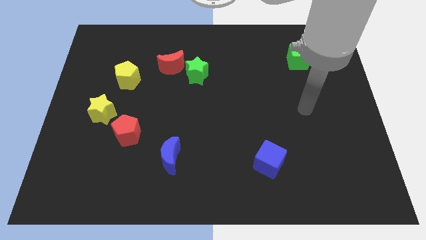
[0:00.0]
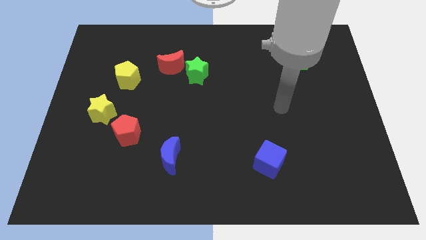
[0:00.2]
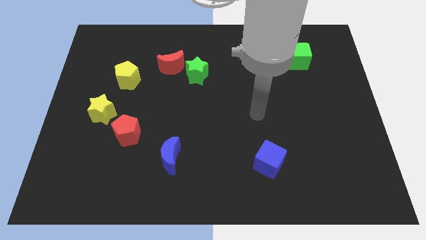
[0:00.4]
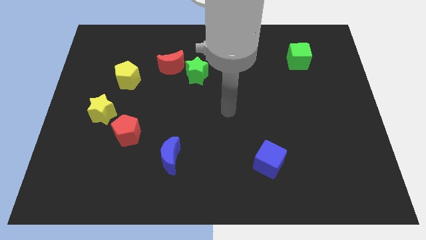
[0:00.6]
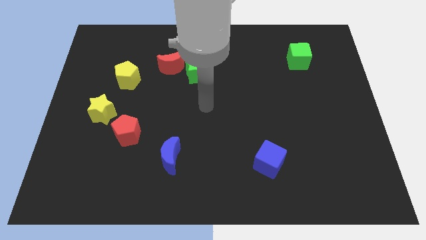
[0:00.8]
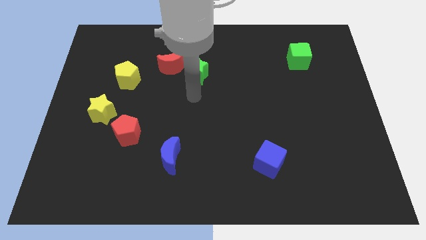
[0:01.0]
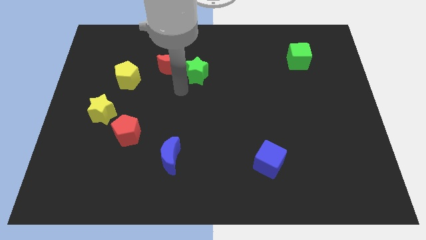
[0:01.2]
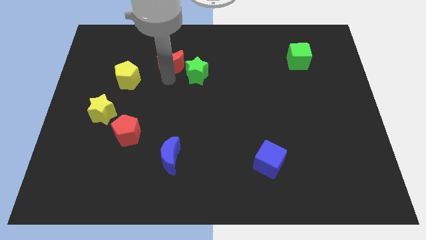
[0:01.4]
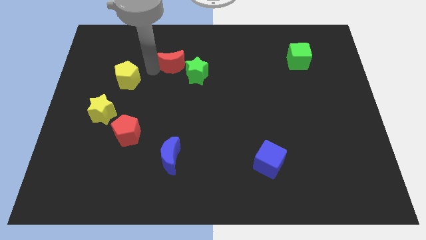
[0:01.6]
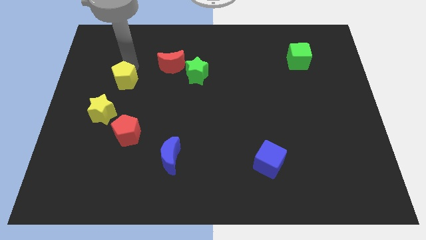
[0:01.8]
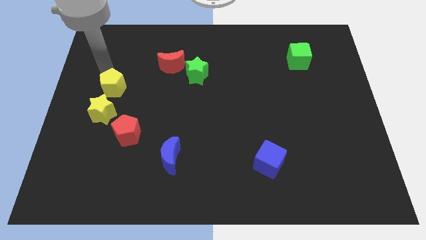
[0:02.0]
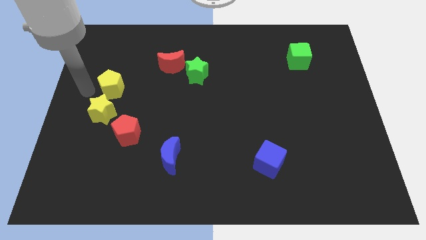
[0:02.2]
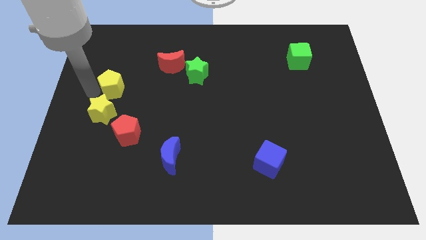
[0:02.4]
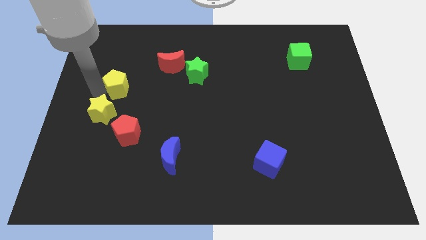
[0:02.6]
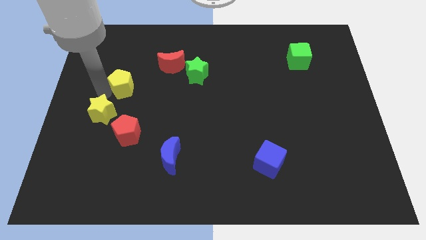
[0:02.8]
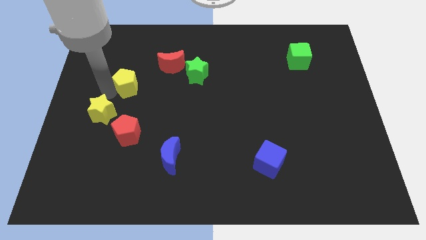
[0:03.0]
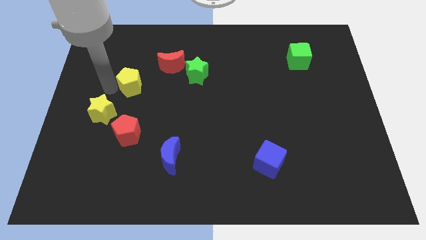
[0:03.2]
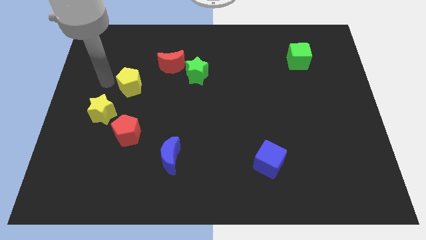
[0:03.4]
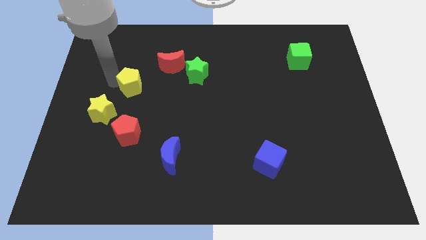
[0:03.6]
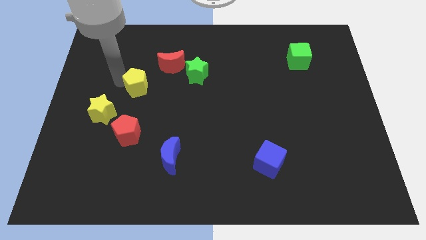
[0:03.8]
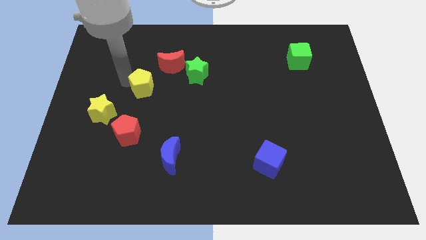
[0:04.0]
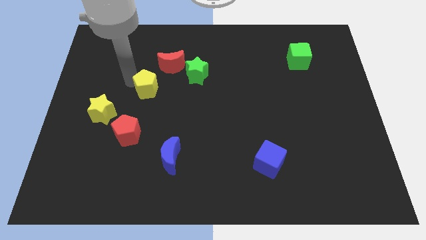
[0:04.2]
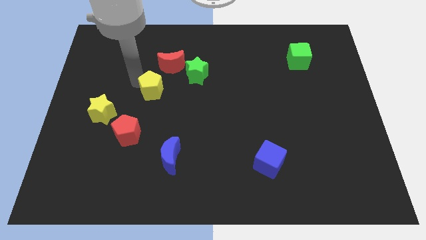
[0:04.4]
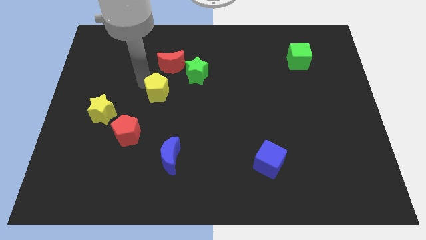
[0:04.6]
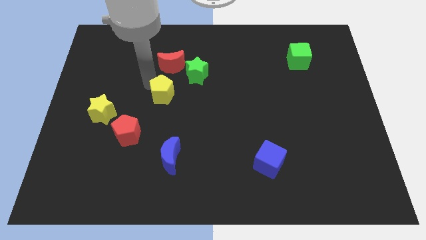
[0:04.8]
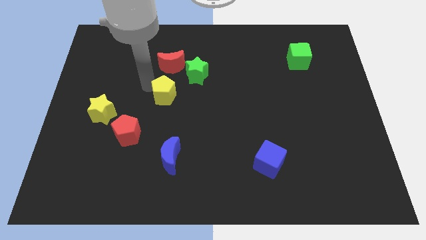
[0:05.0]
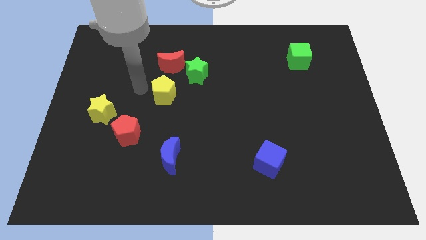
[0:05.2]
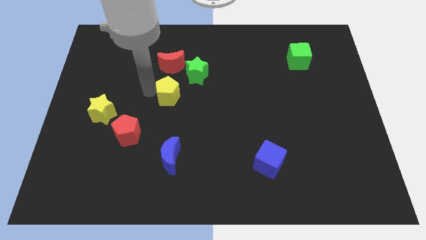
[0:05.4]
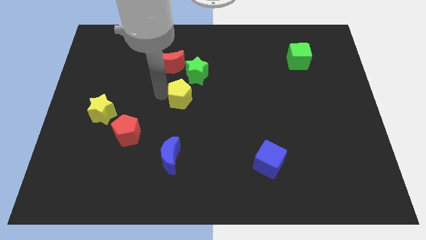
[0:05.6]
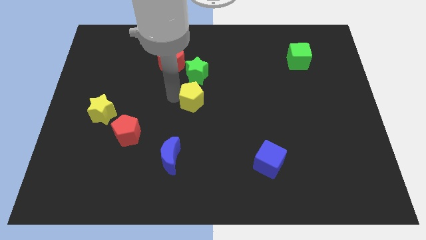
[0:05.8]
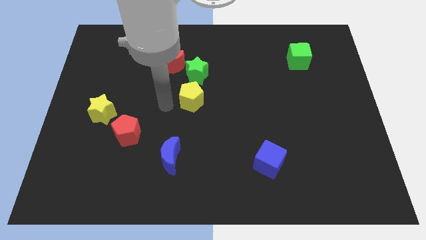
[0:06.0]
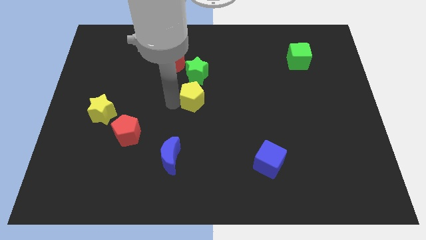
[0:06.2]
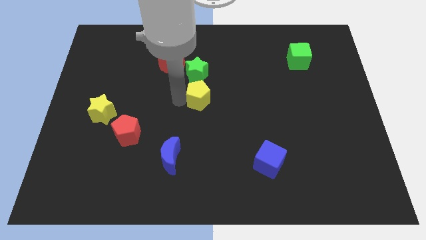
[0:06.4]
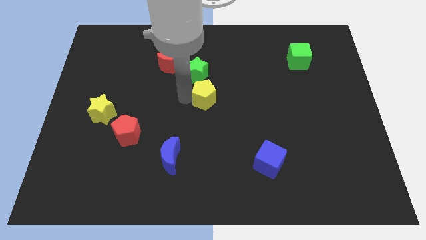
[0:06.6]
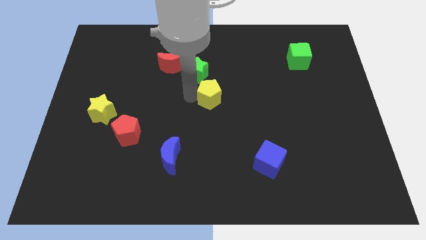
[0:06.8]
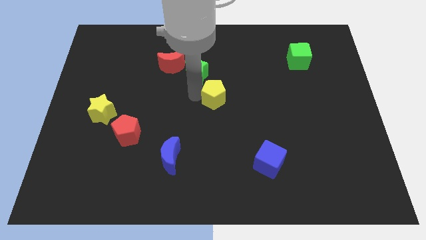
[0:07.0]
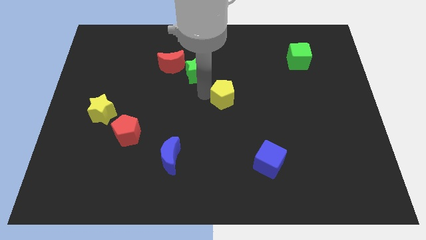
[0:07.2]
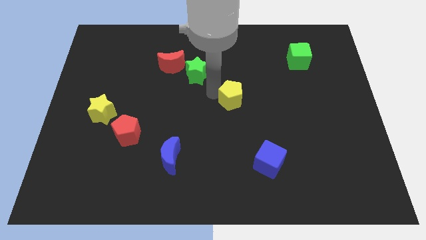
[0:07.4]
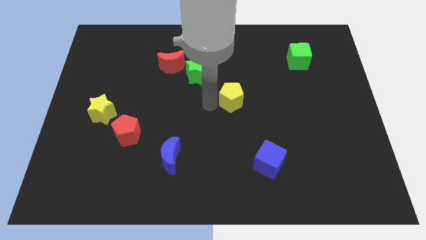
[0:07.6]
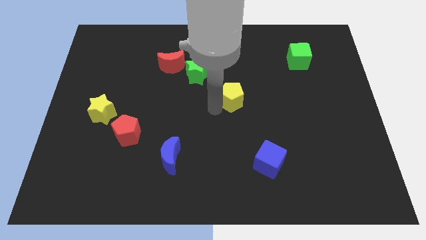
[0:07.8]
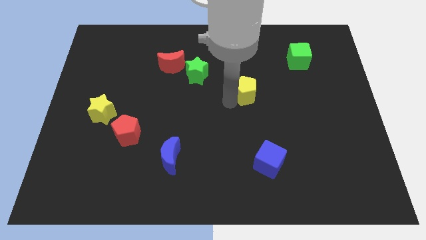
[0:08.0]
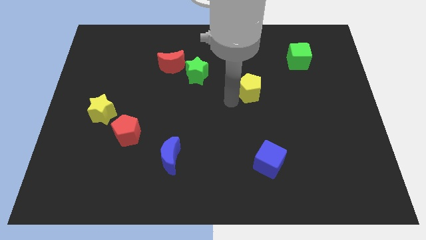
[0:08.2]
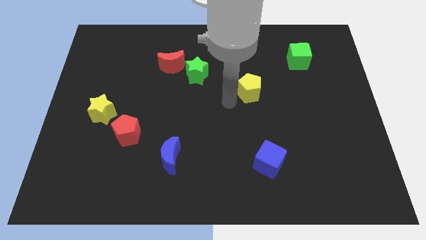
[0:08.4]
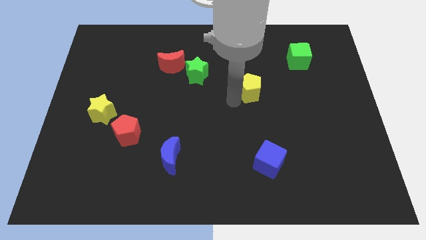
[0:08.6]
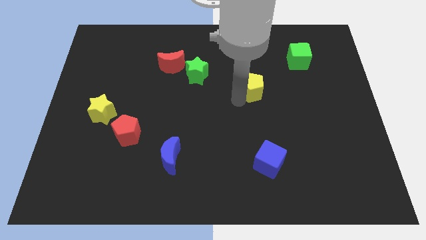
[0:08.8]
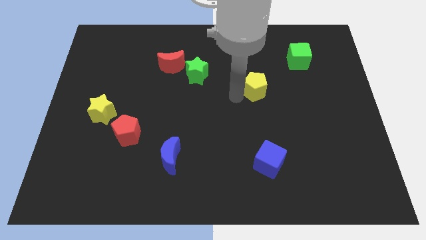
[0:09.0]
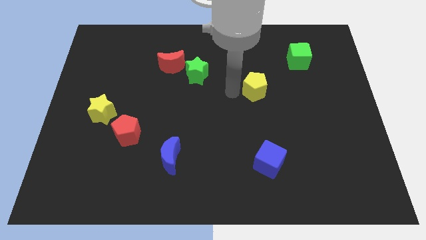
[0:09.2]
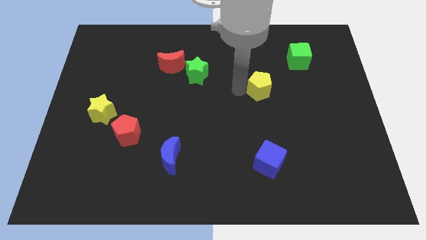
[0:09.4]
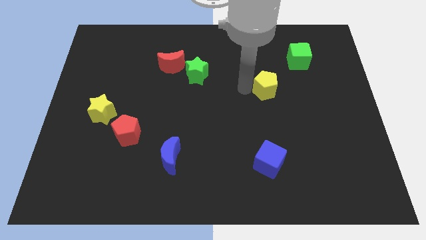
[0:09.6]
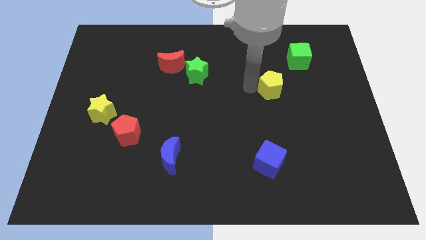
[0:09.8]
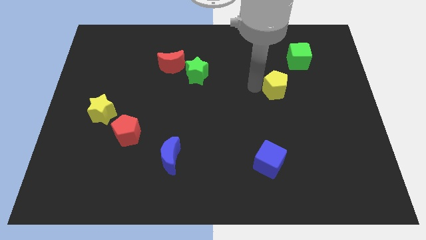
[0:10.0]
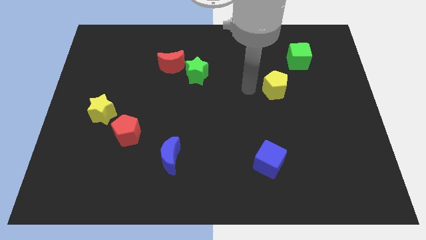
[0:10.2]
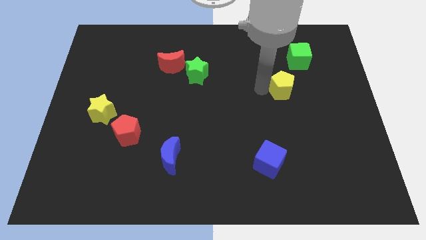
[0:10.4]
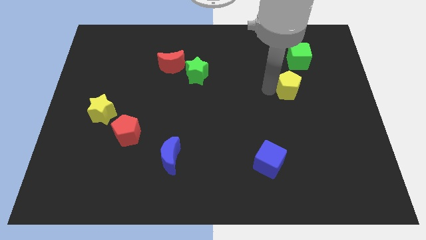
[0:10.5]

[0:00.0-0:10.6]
push the yellow pentagon below the green cube

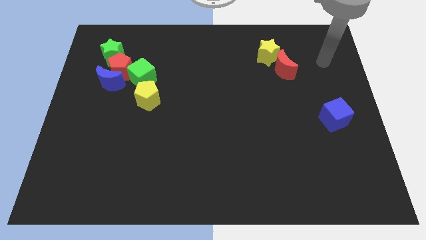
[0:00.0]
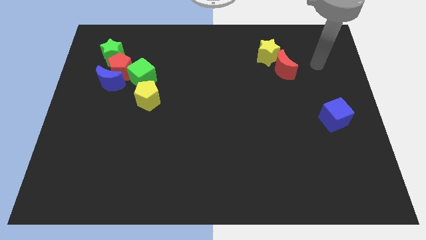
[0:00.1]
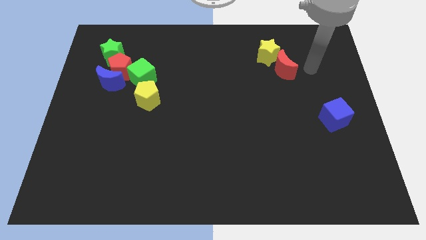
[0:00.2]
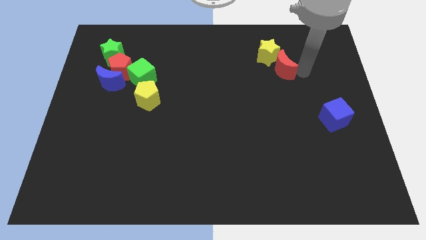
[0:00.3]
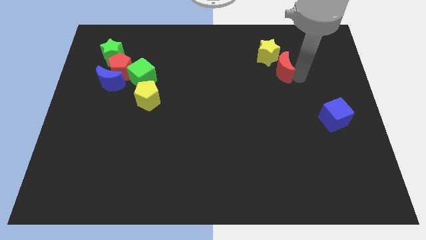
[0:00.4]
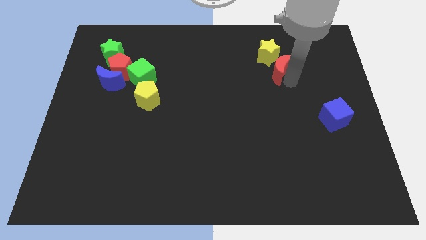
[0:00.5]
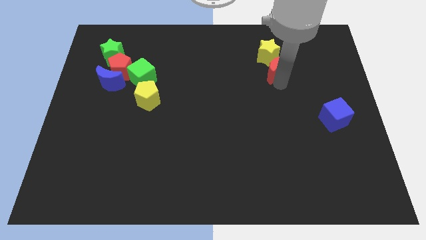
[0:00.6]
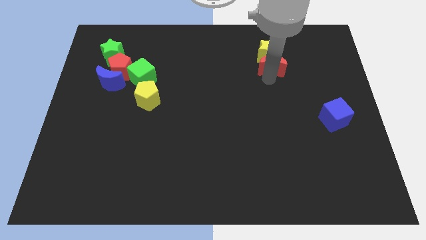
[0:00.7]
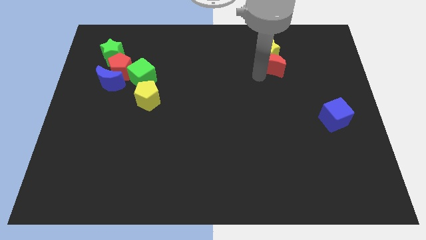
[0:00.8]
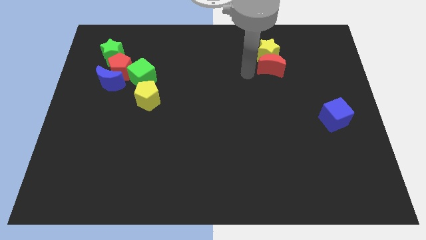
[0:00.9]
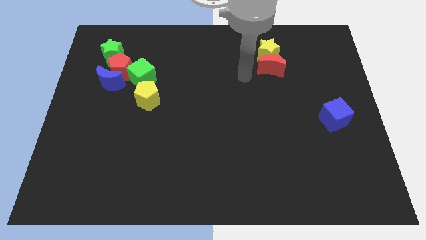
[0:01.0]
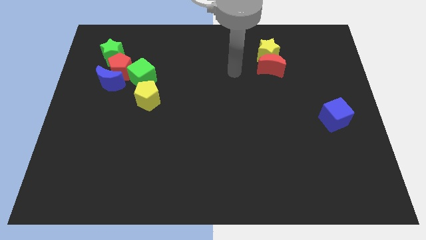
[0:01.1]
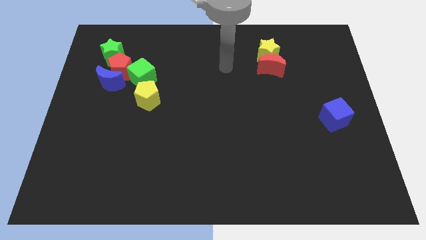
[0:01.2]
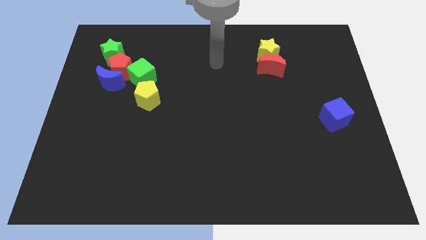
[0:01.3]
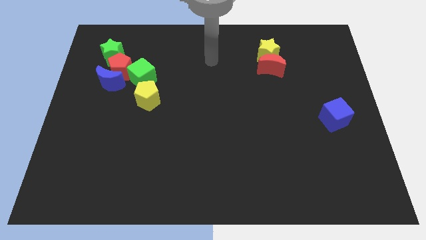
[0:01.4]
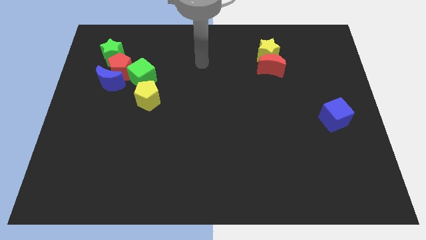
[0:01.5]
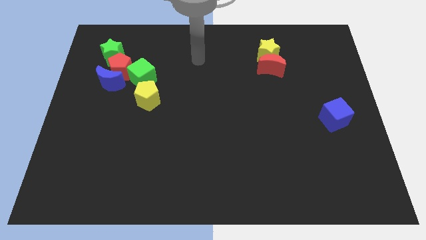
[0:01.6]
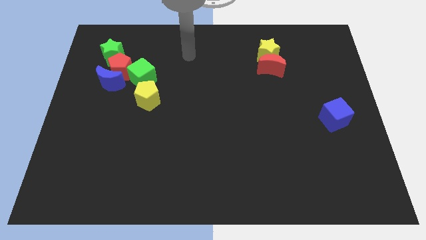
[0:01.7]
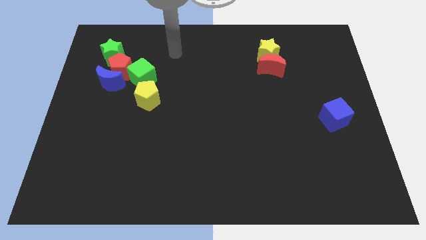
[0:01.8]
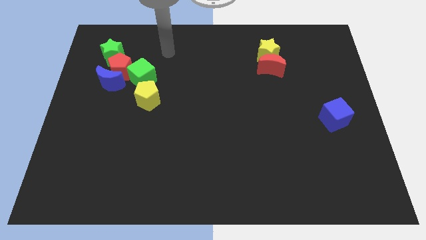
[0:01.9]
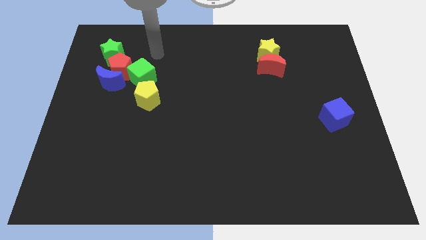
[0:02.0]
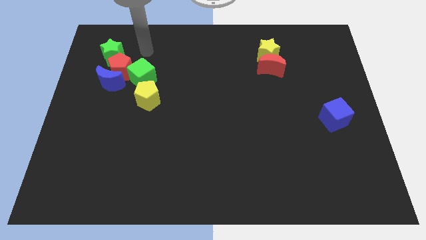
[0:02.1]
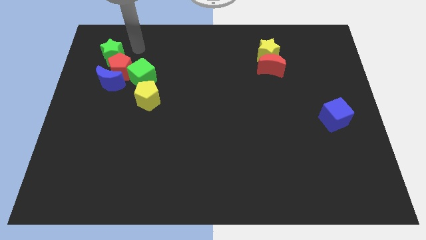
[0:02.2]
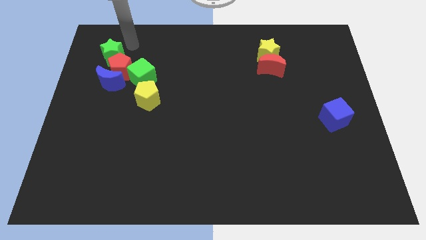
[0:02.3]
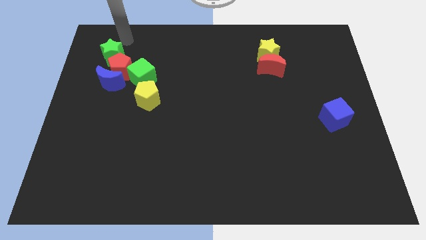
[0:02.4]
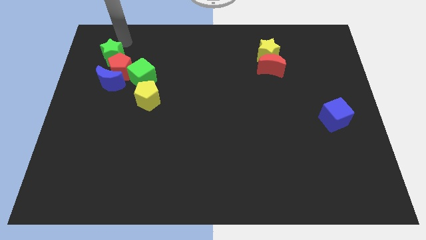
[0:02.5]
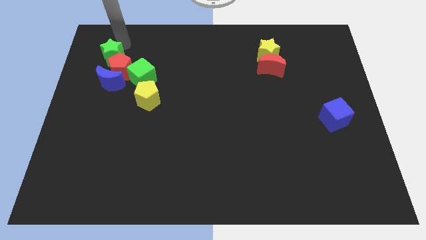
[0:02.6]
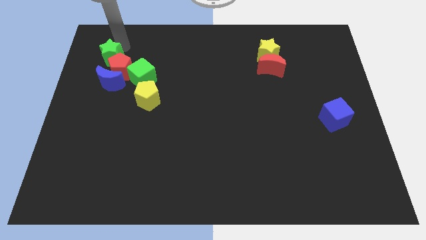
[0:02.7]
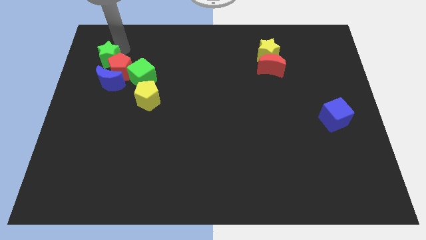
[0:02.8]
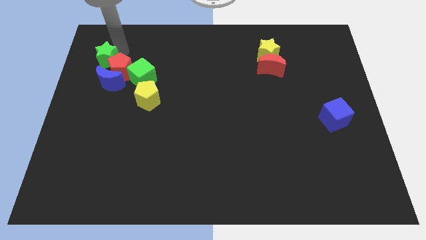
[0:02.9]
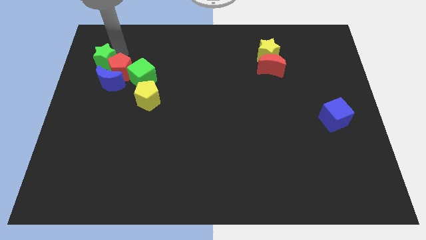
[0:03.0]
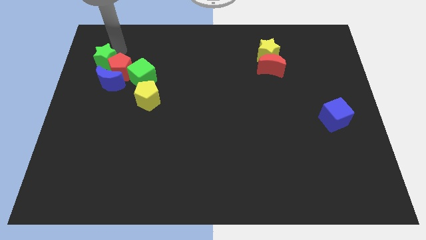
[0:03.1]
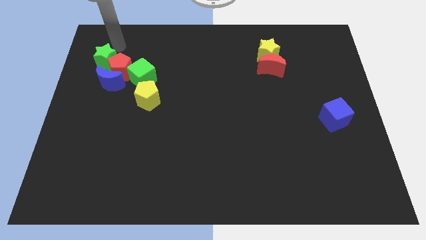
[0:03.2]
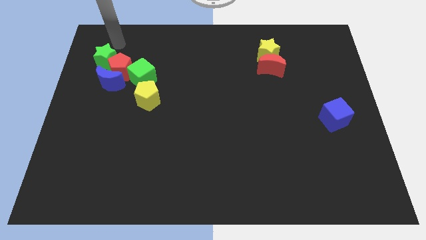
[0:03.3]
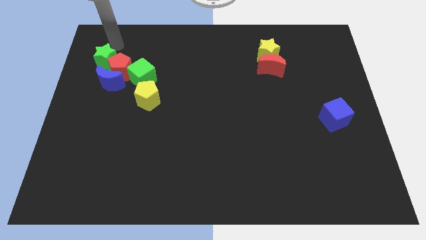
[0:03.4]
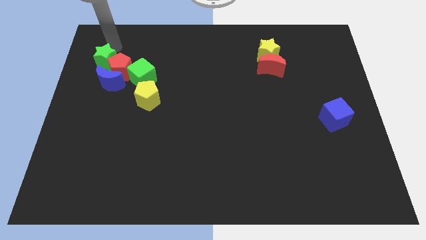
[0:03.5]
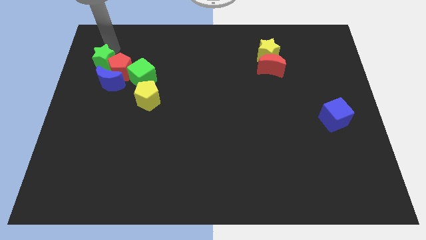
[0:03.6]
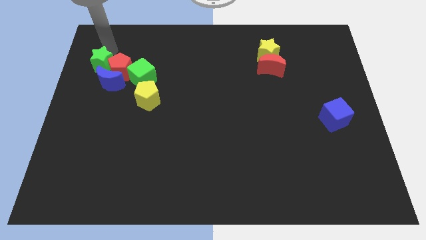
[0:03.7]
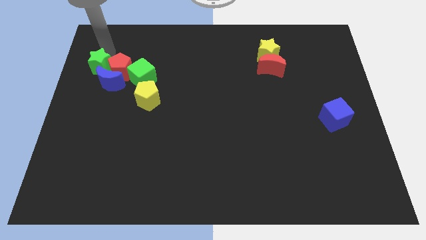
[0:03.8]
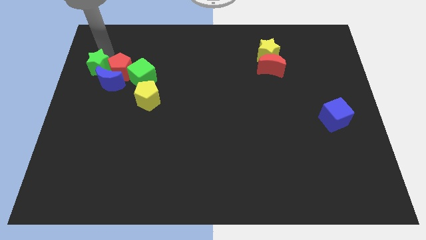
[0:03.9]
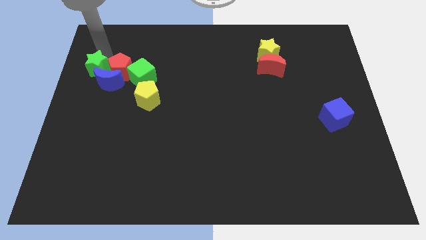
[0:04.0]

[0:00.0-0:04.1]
push the green star to the bottom left of the red pentagon
